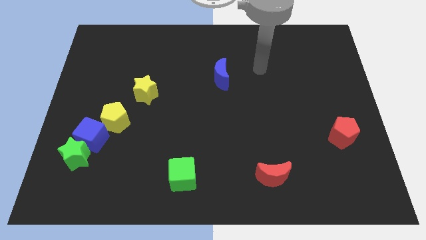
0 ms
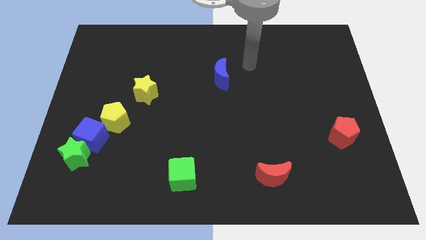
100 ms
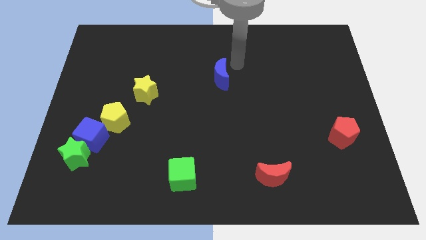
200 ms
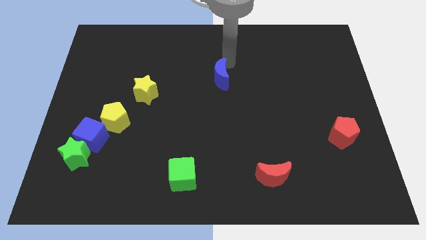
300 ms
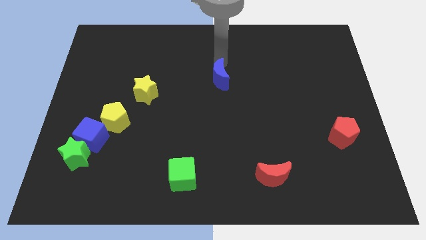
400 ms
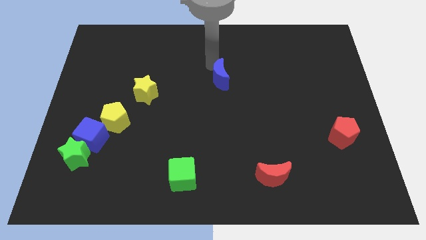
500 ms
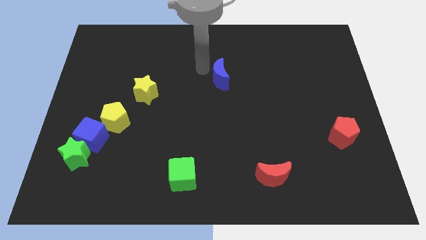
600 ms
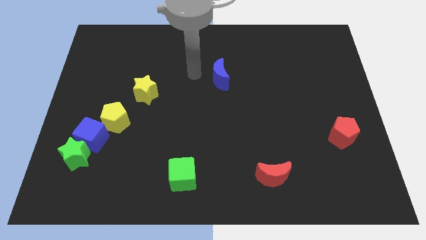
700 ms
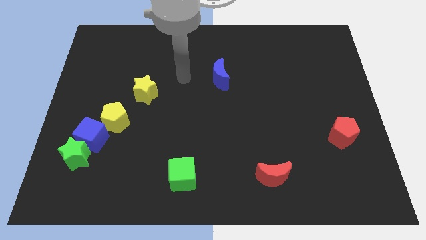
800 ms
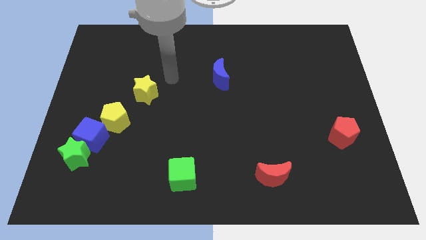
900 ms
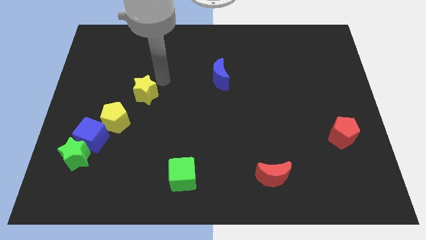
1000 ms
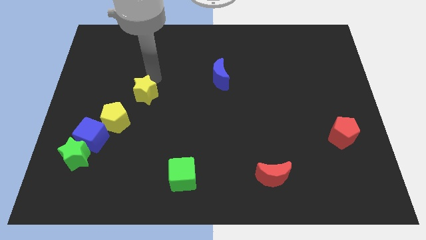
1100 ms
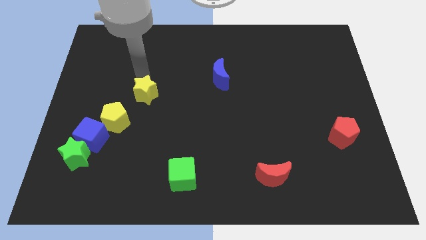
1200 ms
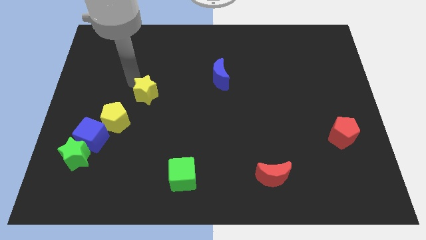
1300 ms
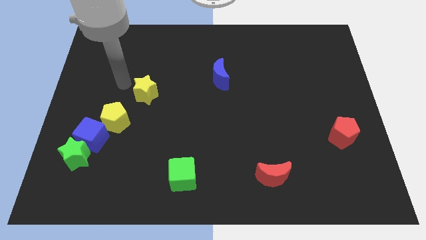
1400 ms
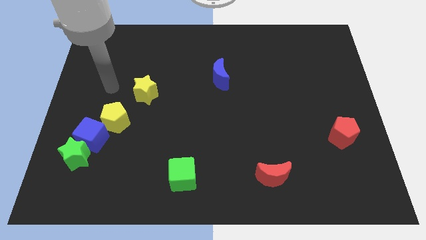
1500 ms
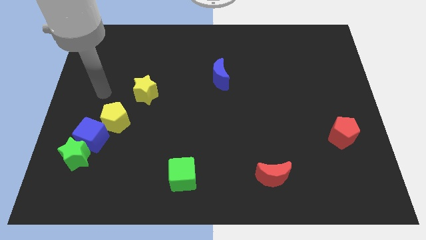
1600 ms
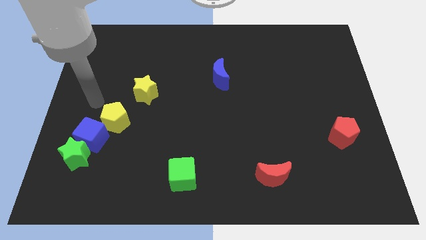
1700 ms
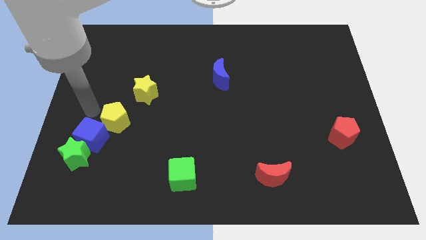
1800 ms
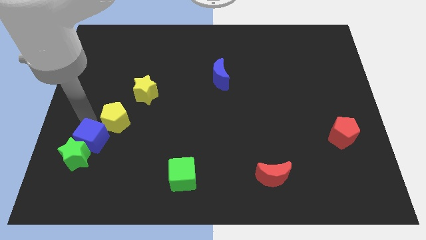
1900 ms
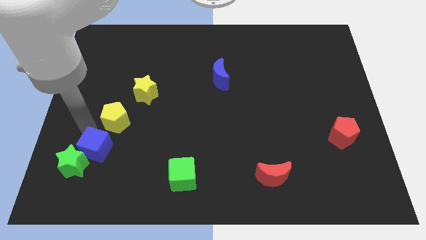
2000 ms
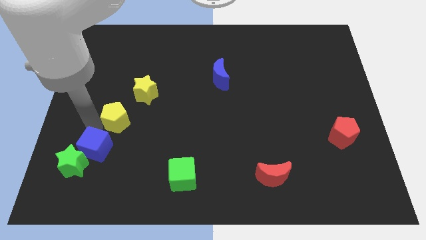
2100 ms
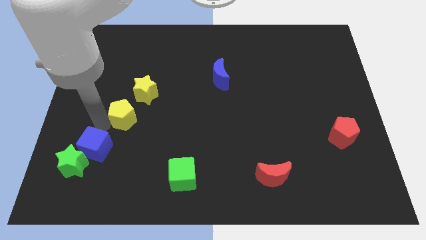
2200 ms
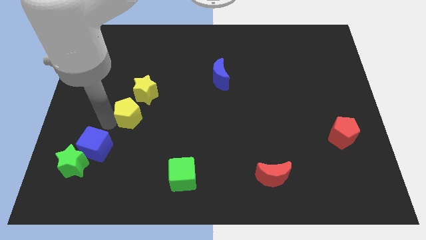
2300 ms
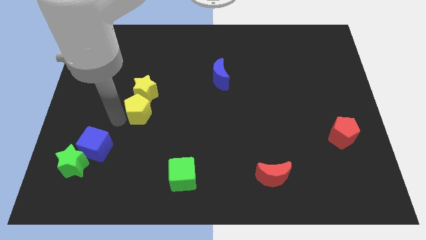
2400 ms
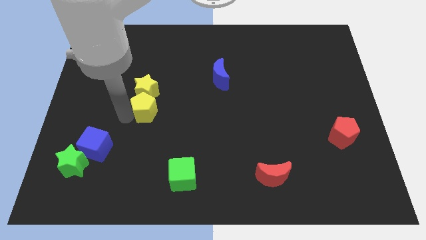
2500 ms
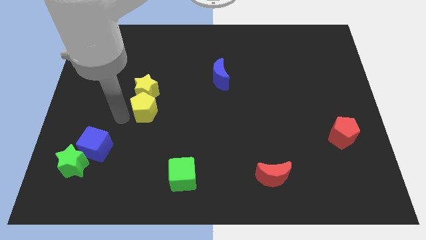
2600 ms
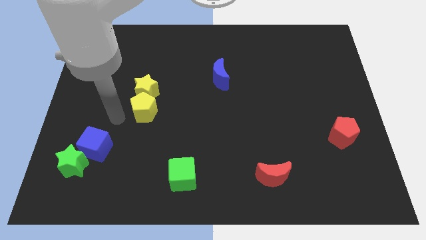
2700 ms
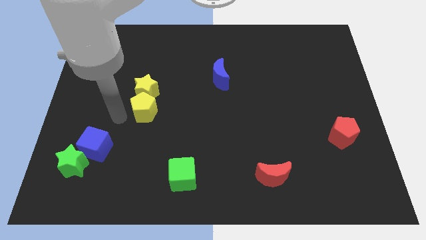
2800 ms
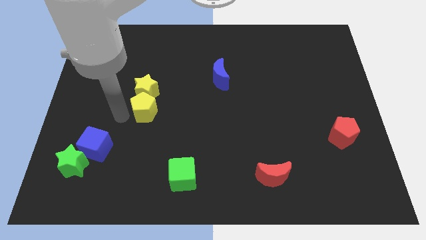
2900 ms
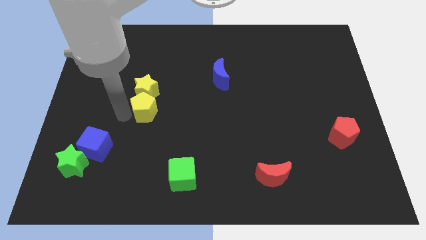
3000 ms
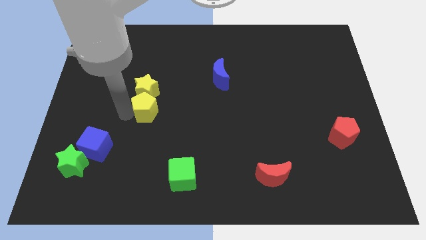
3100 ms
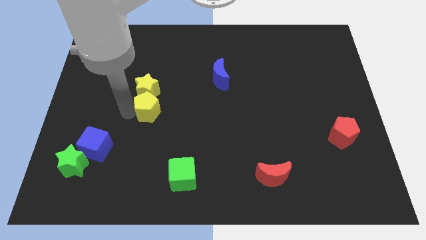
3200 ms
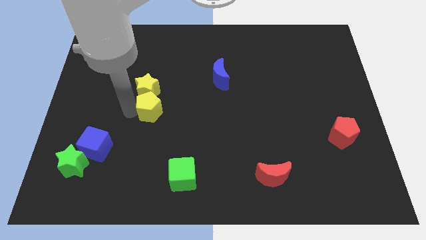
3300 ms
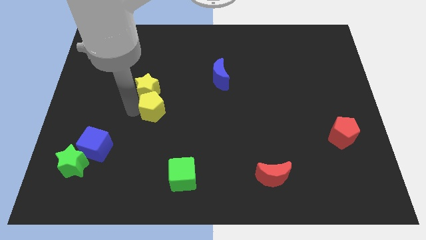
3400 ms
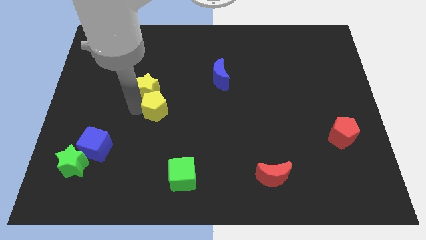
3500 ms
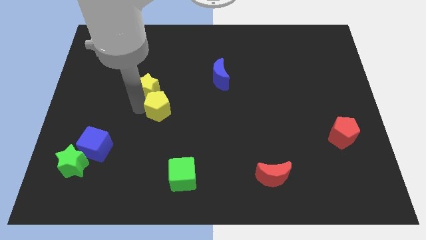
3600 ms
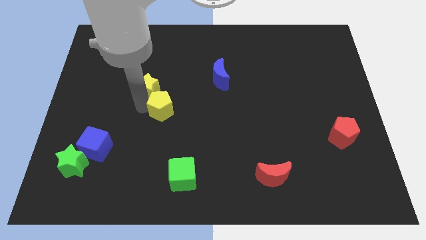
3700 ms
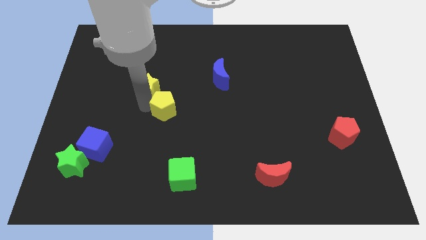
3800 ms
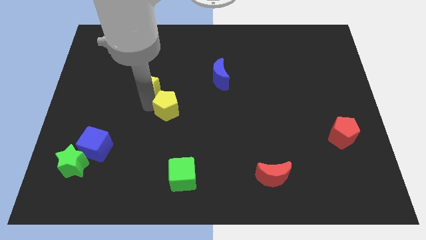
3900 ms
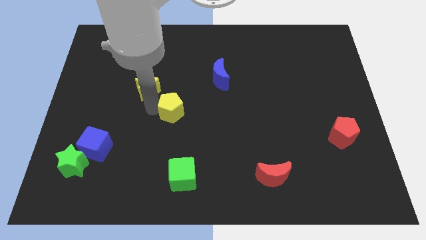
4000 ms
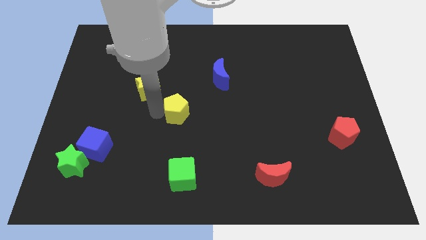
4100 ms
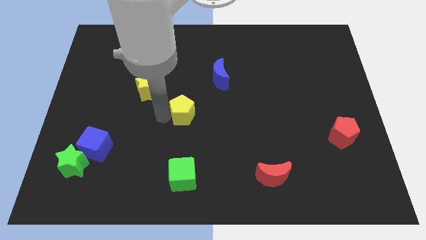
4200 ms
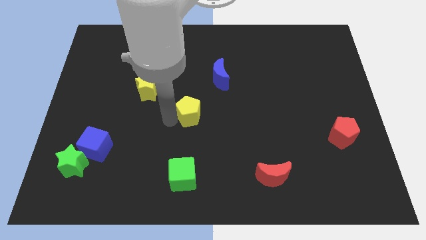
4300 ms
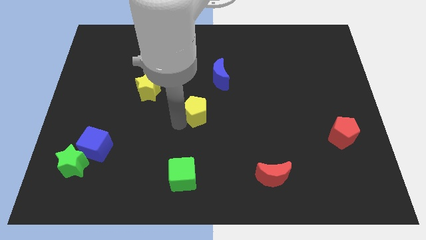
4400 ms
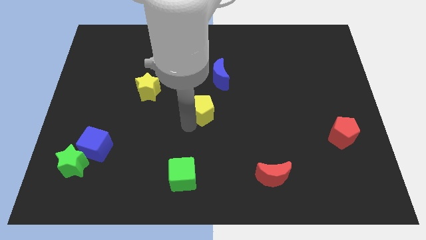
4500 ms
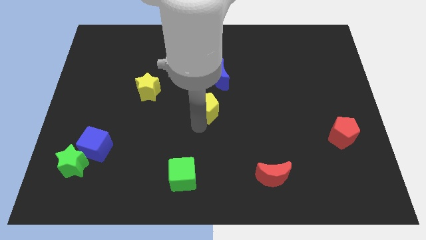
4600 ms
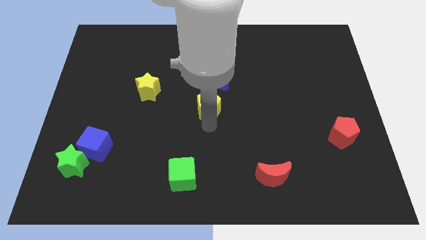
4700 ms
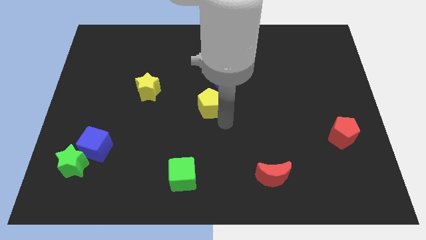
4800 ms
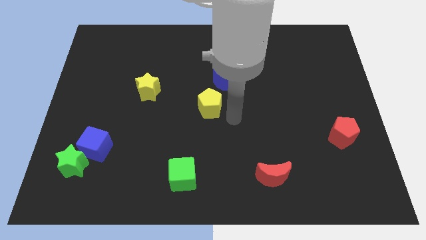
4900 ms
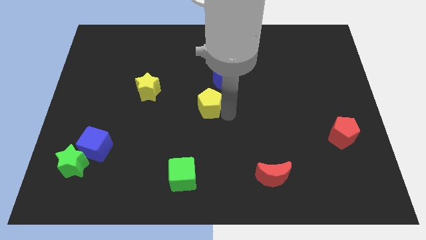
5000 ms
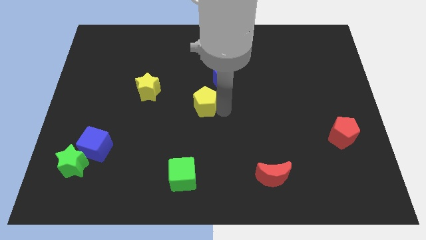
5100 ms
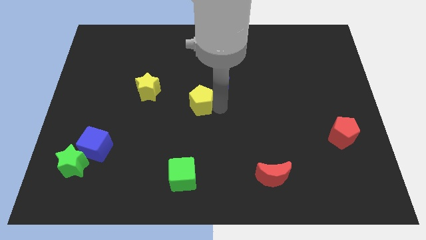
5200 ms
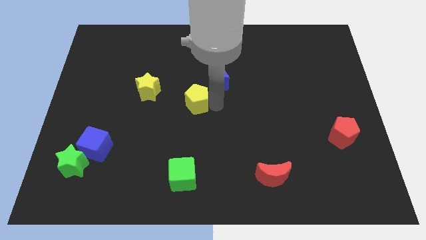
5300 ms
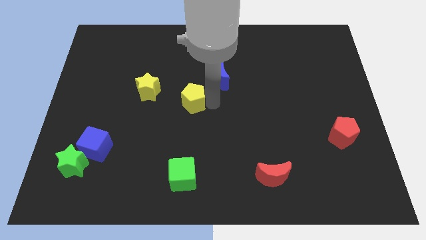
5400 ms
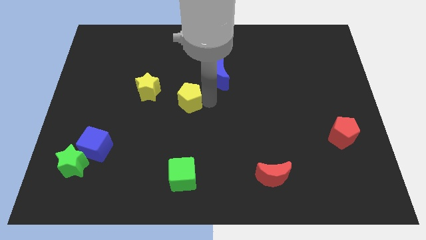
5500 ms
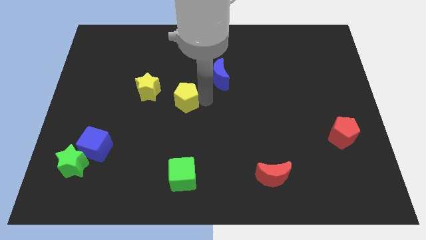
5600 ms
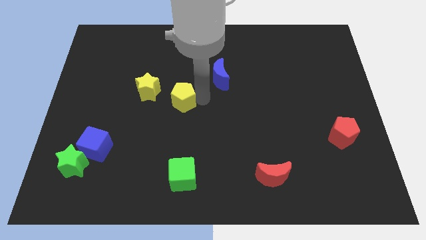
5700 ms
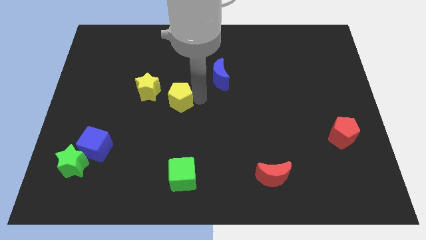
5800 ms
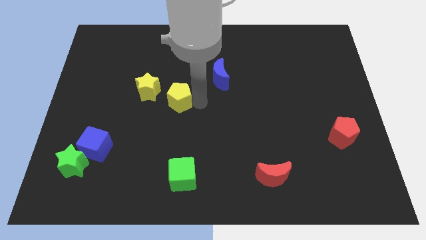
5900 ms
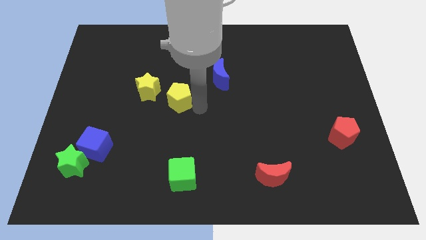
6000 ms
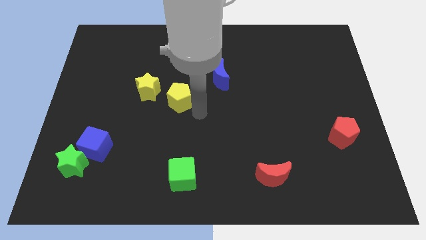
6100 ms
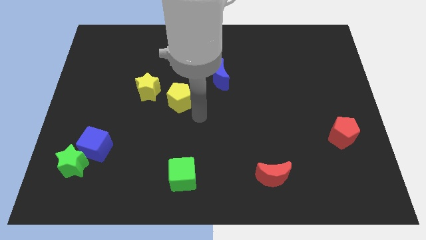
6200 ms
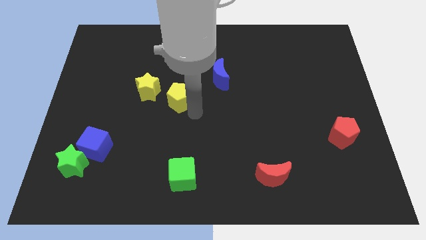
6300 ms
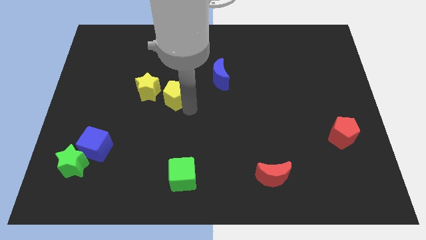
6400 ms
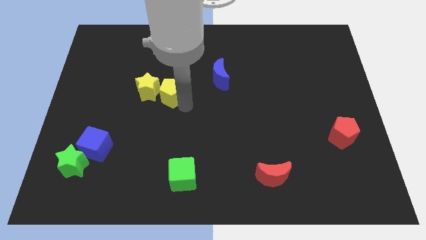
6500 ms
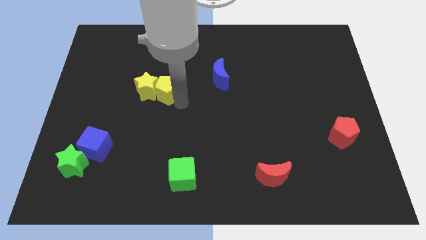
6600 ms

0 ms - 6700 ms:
push the yellow pentagon to the top right of the yellow star
